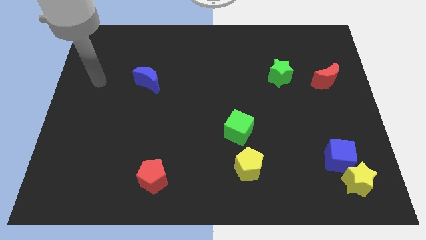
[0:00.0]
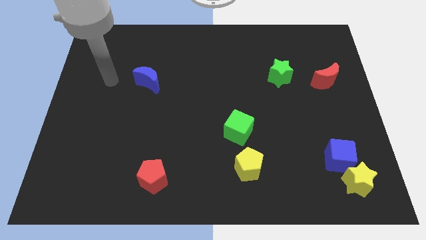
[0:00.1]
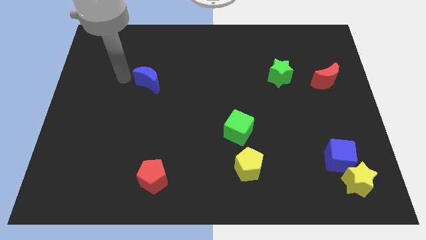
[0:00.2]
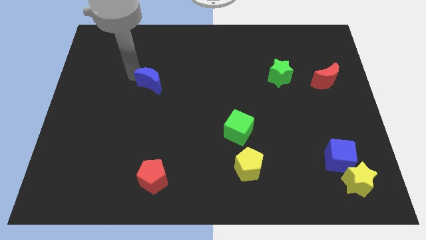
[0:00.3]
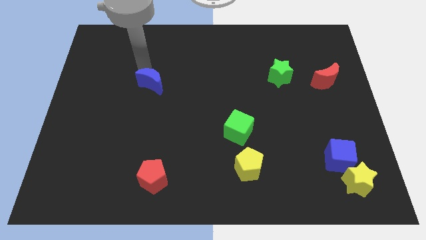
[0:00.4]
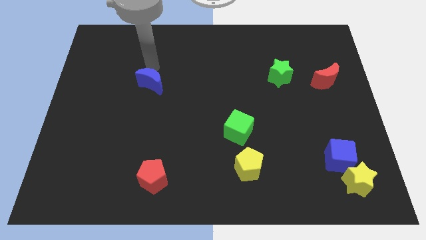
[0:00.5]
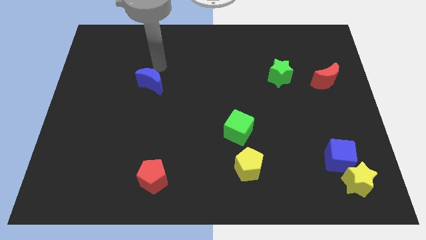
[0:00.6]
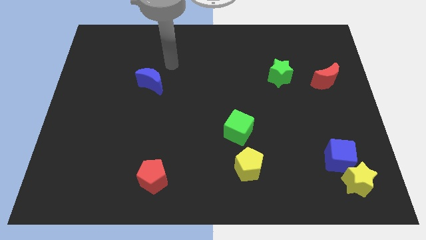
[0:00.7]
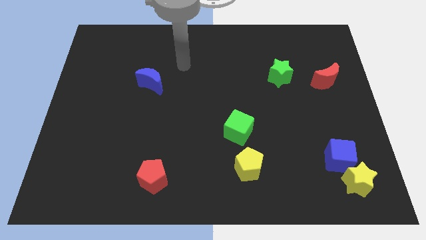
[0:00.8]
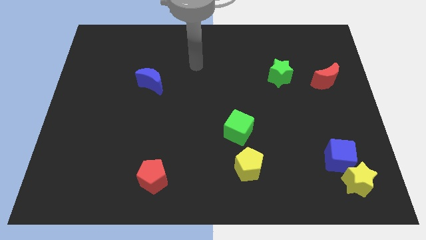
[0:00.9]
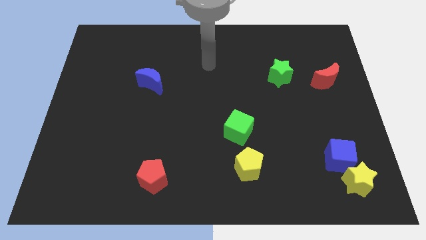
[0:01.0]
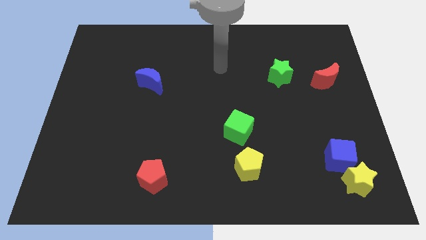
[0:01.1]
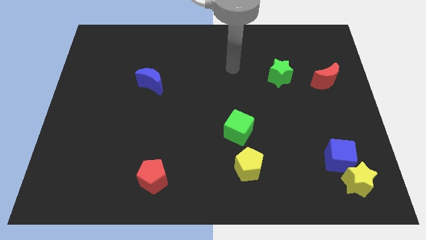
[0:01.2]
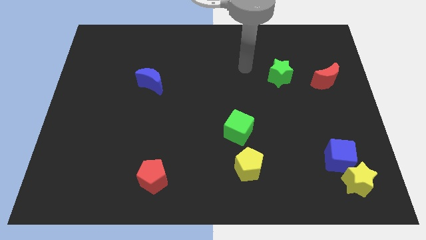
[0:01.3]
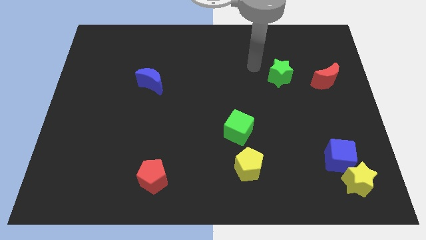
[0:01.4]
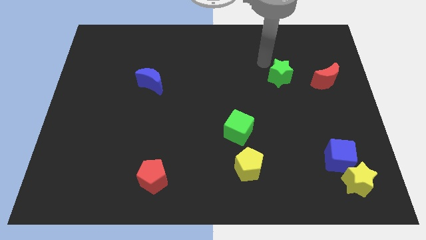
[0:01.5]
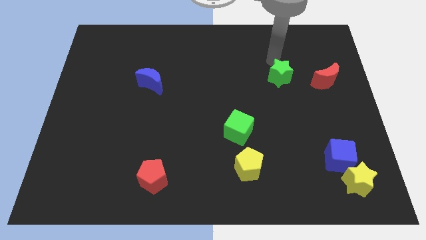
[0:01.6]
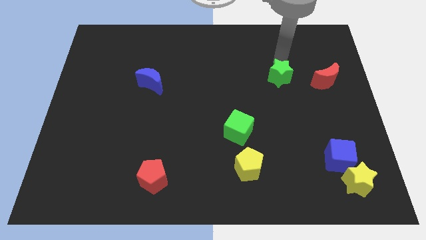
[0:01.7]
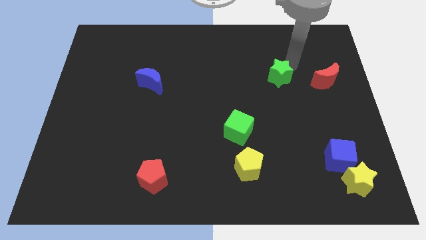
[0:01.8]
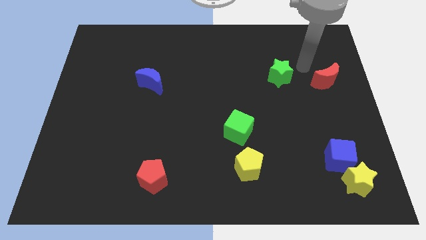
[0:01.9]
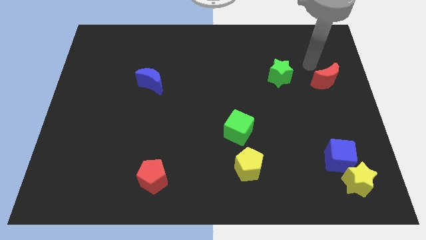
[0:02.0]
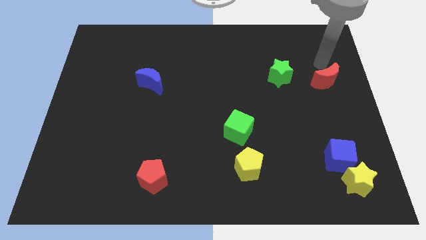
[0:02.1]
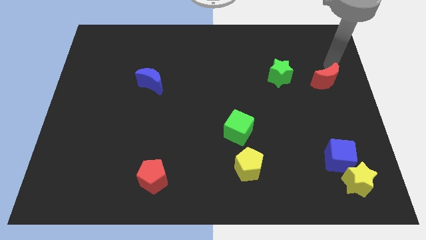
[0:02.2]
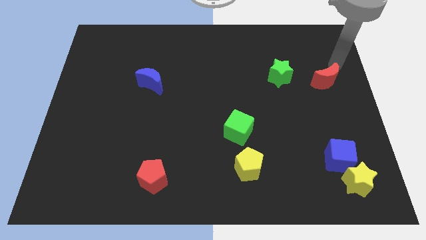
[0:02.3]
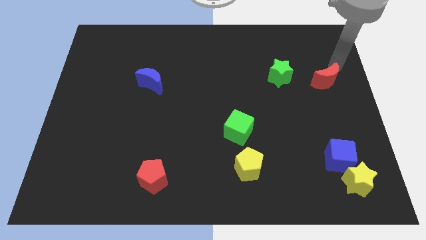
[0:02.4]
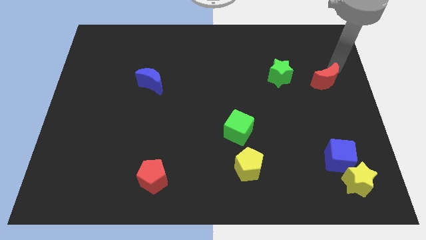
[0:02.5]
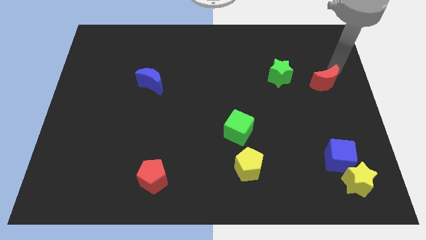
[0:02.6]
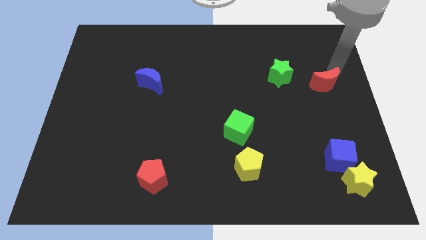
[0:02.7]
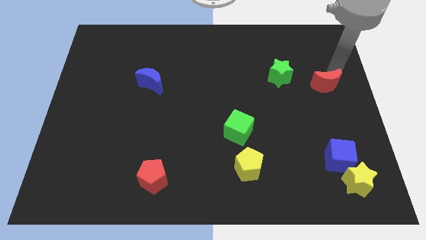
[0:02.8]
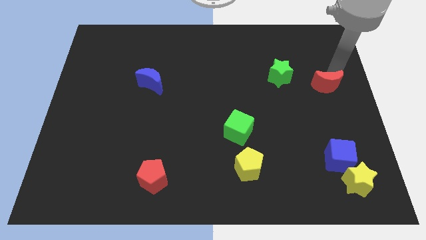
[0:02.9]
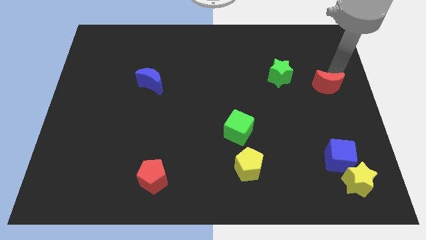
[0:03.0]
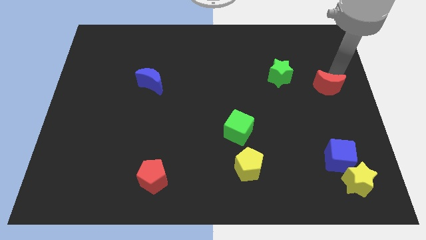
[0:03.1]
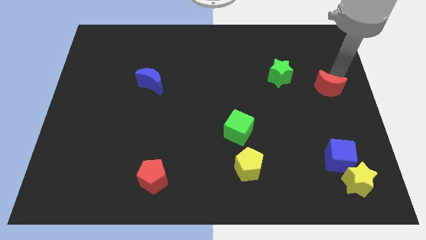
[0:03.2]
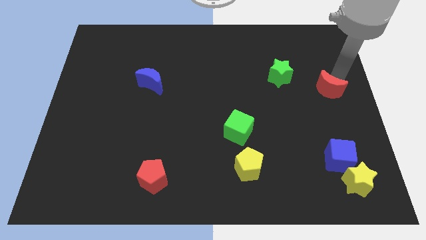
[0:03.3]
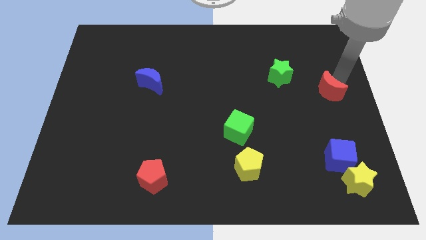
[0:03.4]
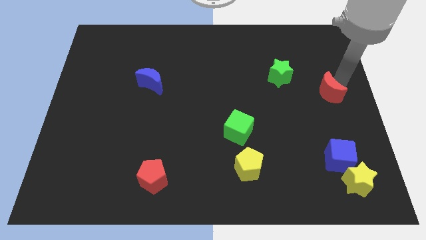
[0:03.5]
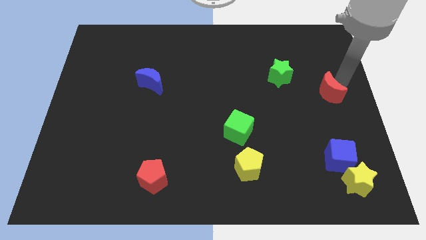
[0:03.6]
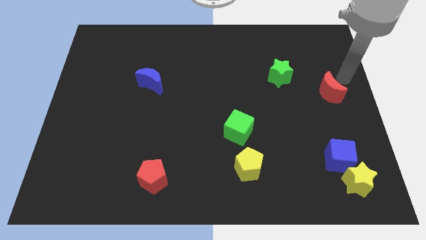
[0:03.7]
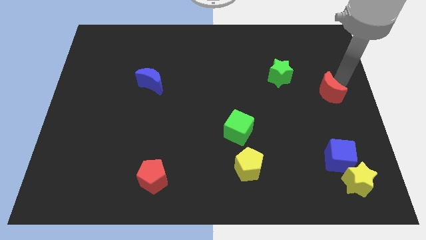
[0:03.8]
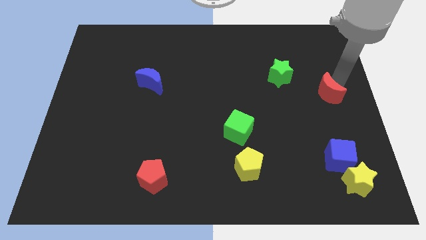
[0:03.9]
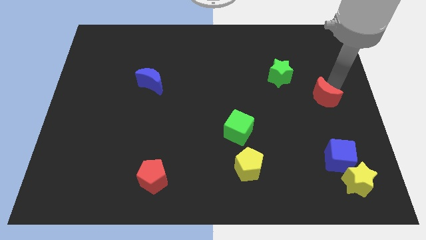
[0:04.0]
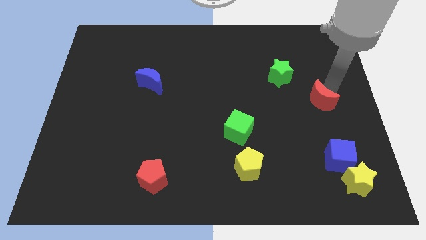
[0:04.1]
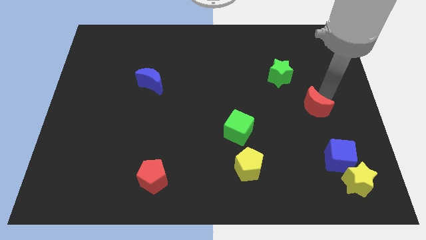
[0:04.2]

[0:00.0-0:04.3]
slightly move the red moon downwards and then left

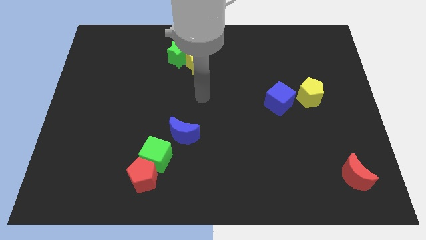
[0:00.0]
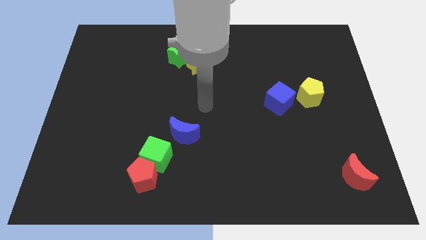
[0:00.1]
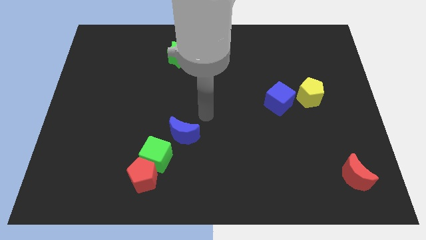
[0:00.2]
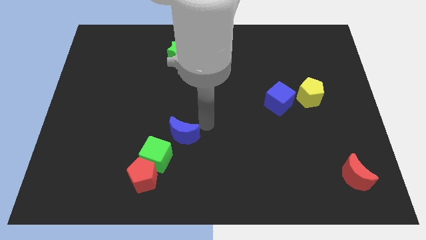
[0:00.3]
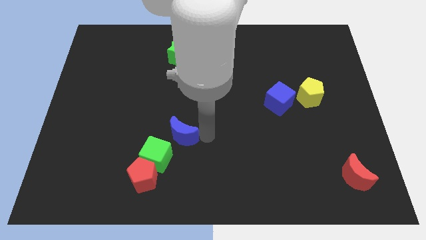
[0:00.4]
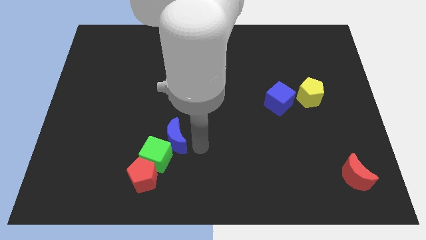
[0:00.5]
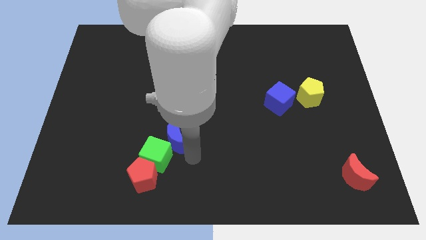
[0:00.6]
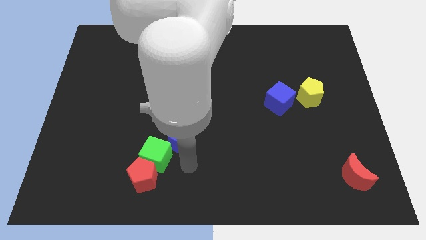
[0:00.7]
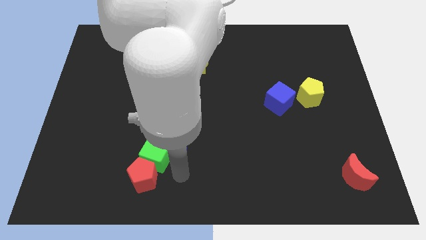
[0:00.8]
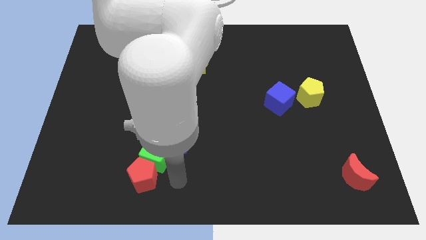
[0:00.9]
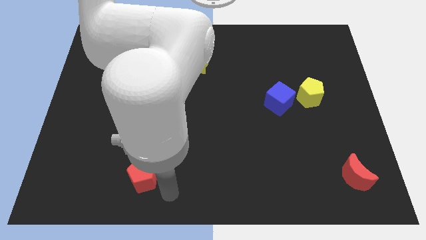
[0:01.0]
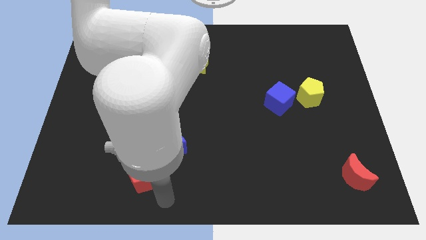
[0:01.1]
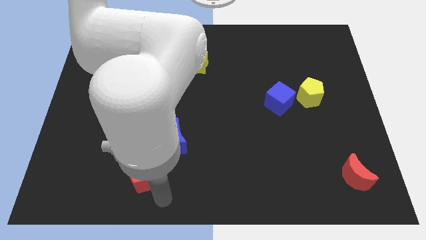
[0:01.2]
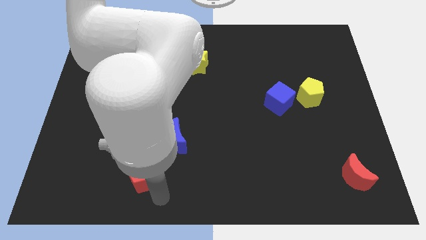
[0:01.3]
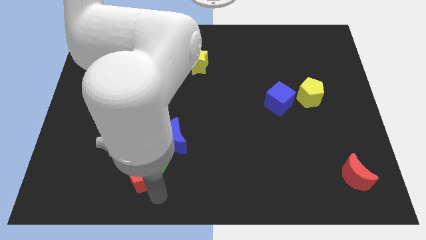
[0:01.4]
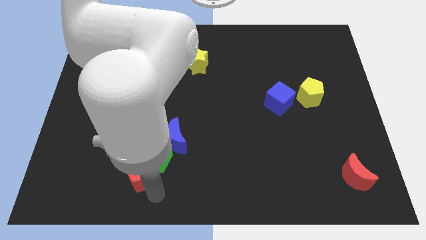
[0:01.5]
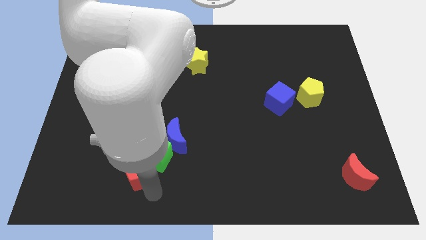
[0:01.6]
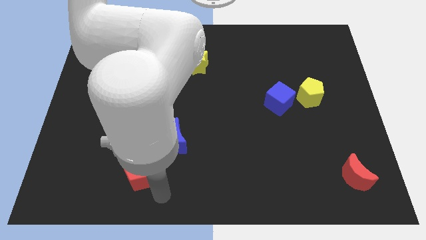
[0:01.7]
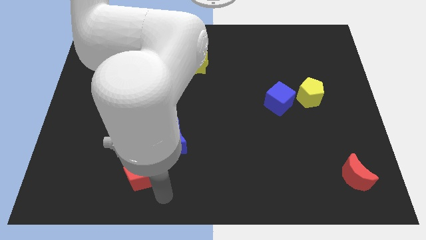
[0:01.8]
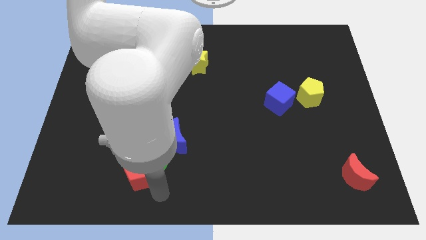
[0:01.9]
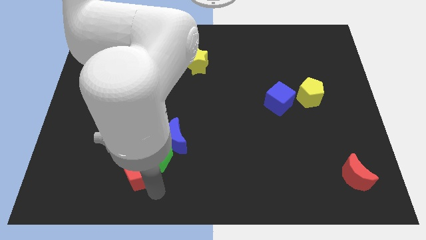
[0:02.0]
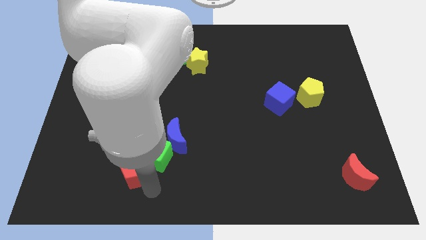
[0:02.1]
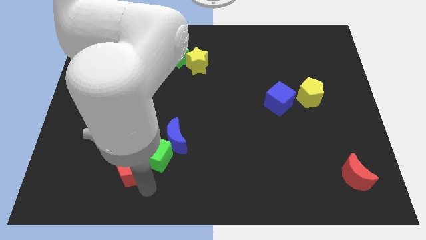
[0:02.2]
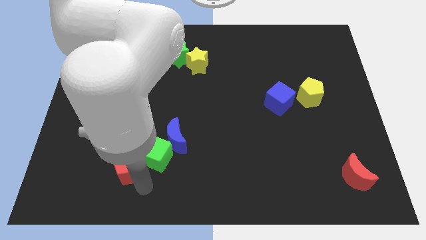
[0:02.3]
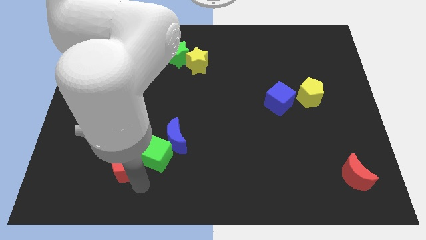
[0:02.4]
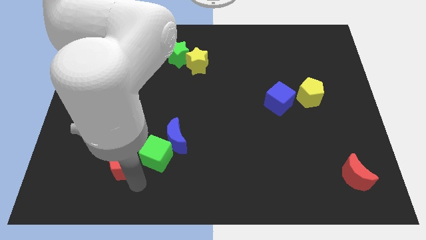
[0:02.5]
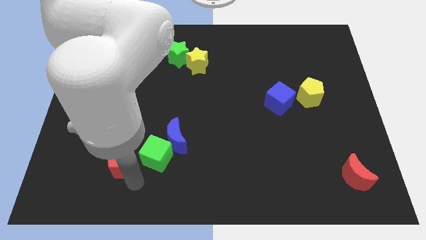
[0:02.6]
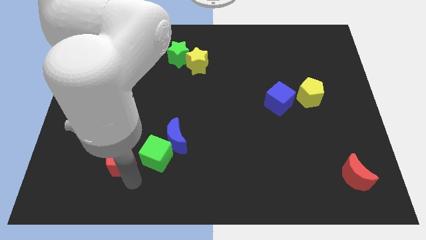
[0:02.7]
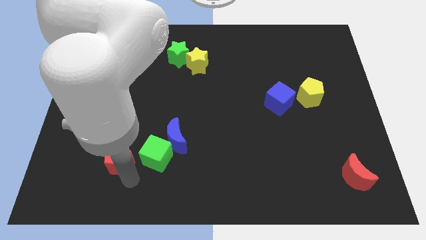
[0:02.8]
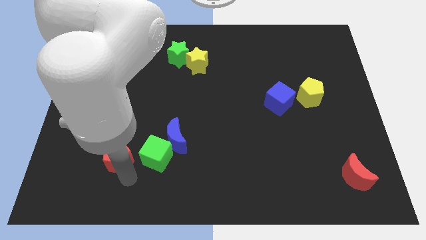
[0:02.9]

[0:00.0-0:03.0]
push the red pentagon a bit up and then left

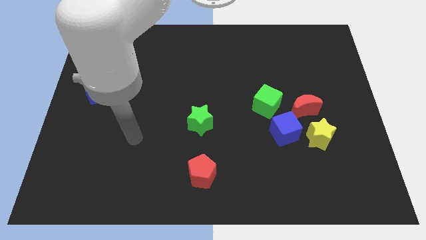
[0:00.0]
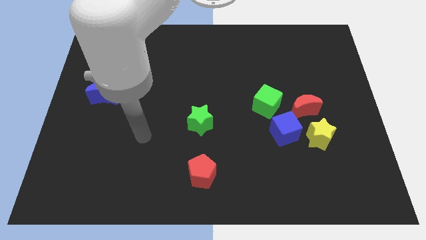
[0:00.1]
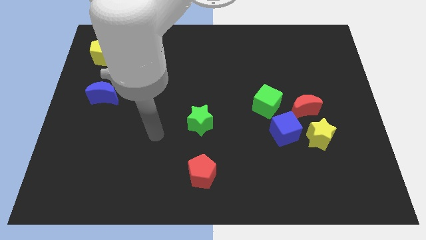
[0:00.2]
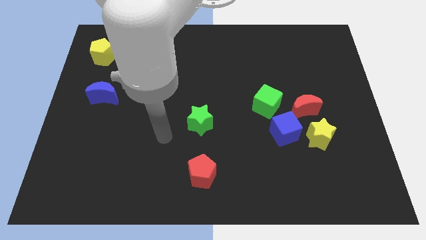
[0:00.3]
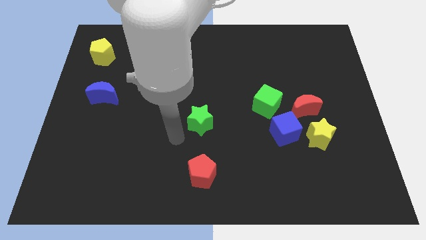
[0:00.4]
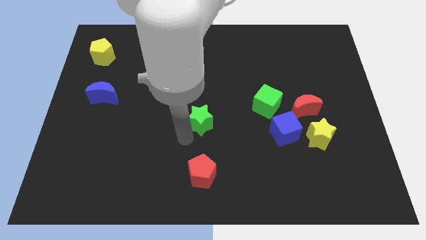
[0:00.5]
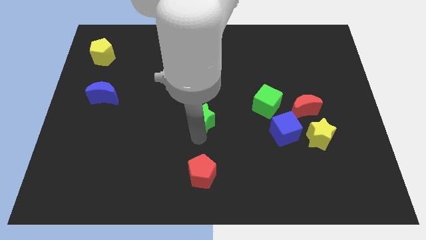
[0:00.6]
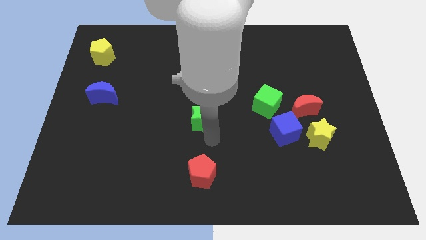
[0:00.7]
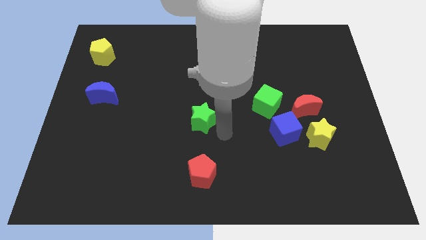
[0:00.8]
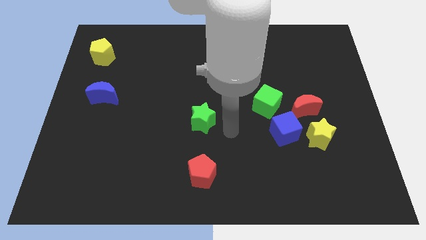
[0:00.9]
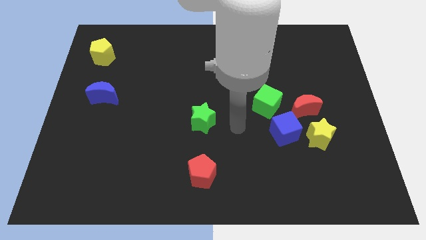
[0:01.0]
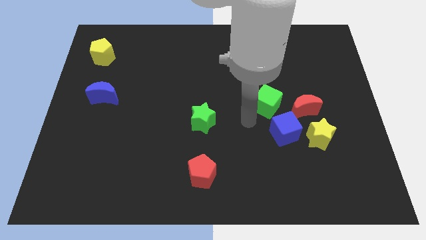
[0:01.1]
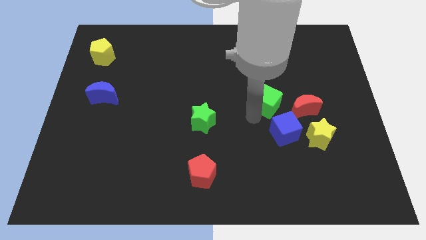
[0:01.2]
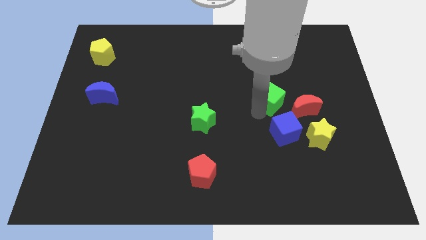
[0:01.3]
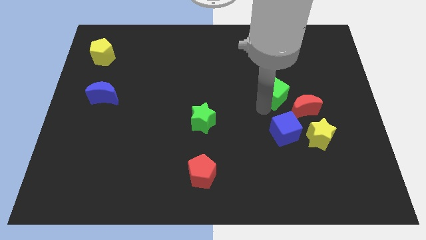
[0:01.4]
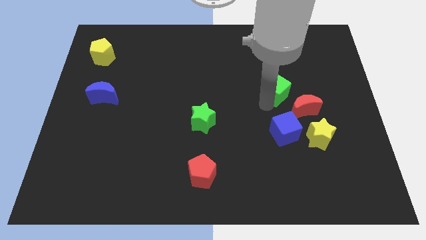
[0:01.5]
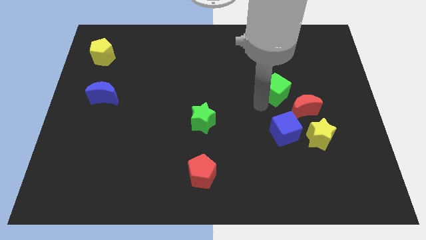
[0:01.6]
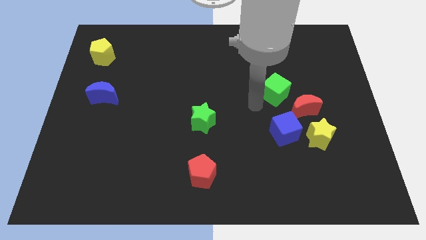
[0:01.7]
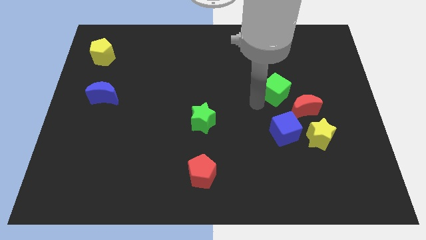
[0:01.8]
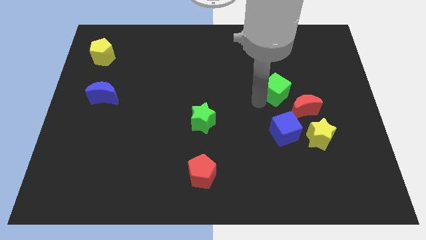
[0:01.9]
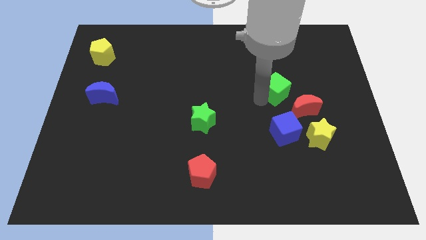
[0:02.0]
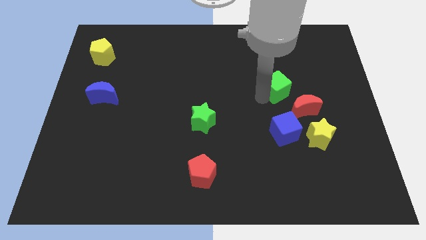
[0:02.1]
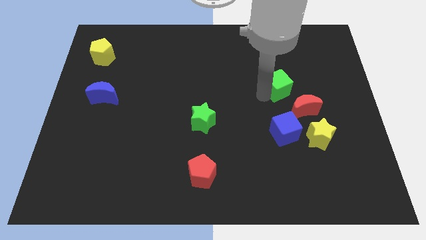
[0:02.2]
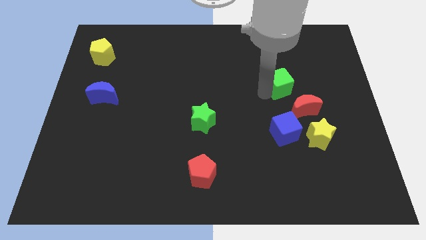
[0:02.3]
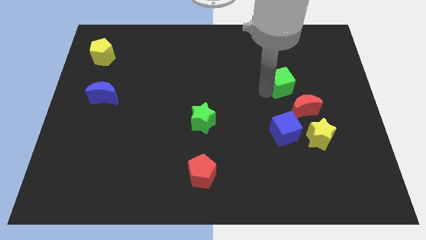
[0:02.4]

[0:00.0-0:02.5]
move the green cube slightly up and then right
